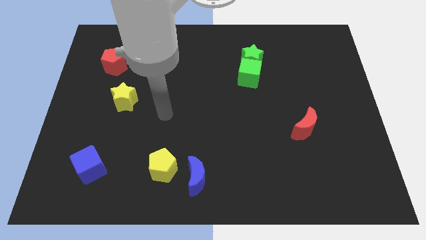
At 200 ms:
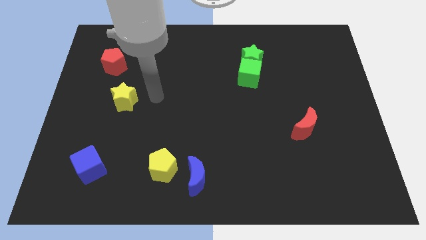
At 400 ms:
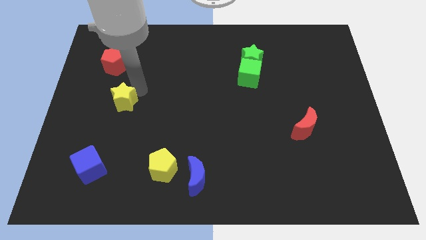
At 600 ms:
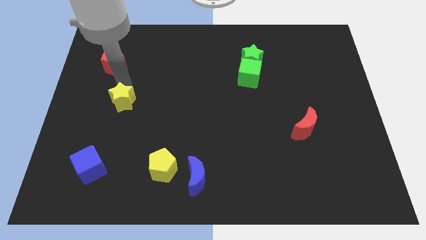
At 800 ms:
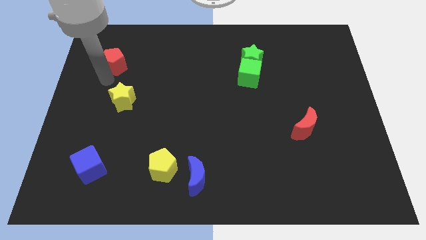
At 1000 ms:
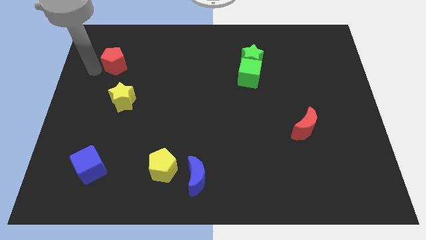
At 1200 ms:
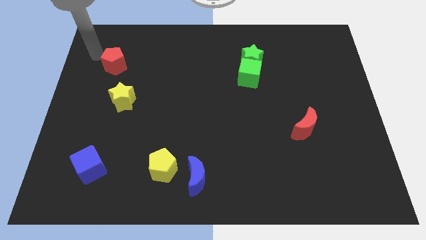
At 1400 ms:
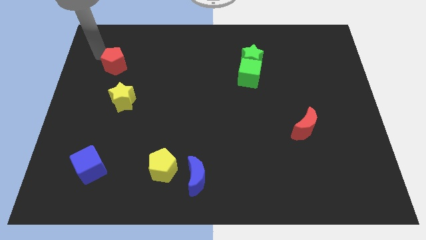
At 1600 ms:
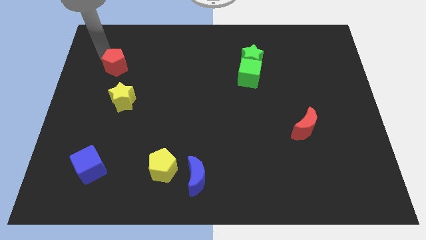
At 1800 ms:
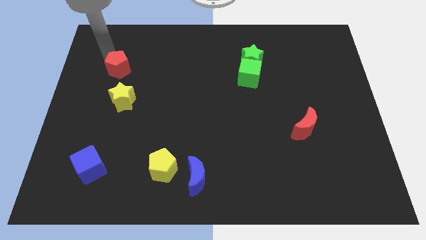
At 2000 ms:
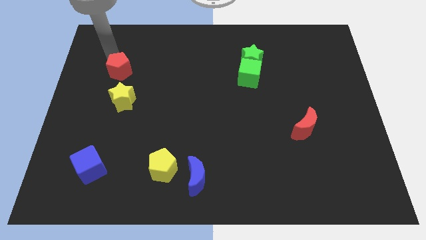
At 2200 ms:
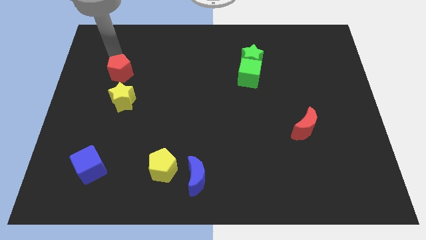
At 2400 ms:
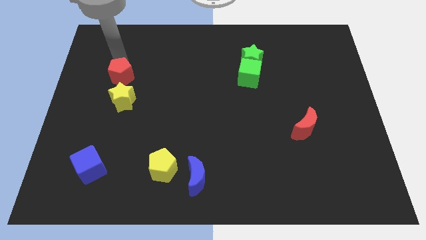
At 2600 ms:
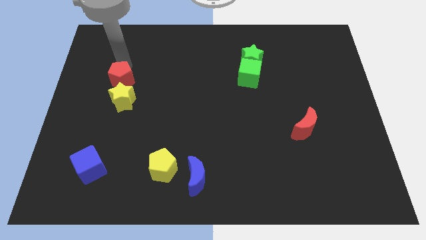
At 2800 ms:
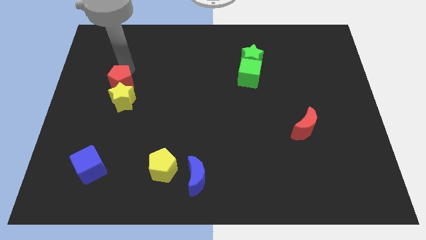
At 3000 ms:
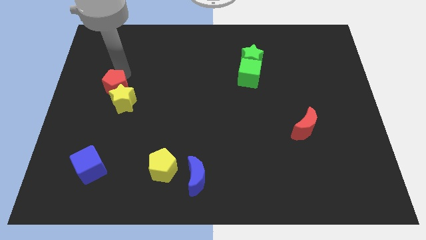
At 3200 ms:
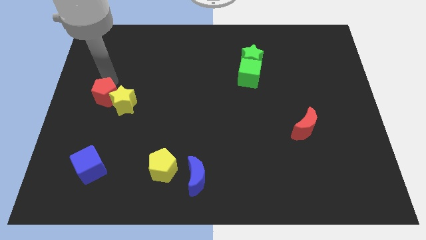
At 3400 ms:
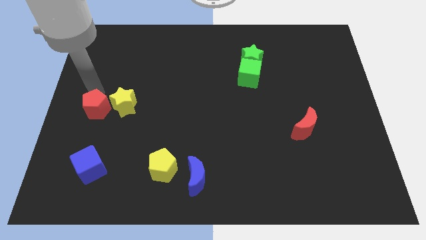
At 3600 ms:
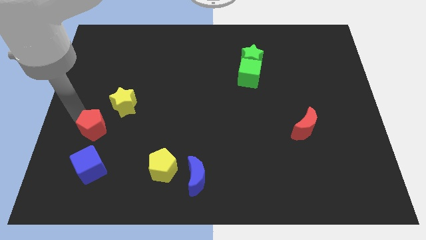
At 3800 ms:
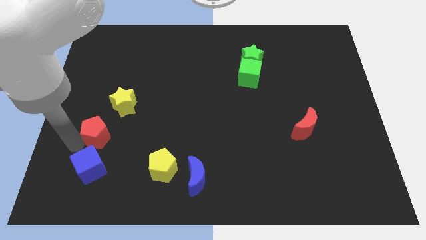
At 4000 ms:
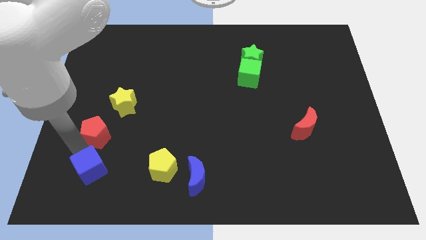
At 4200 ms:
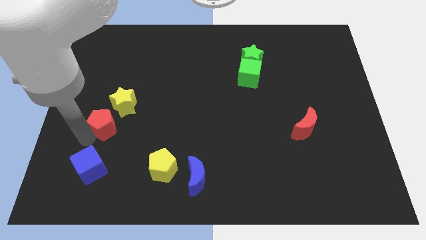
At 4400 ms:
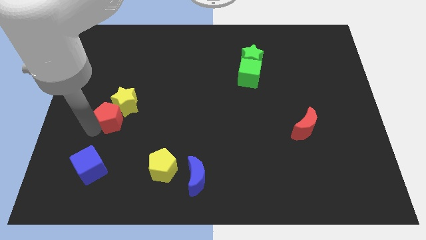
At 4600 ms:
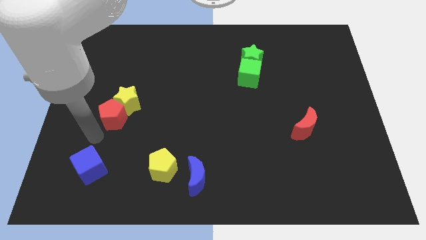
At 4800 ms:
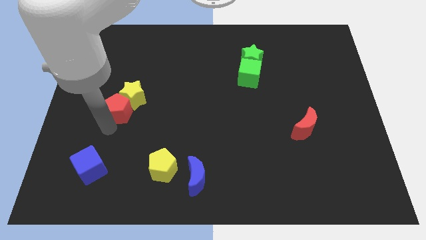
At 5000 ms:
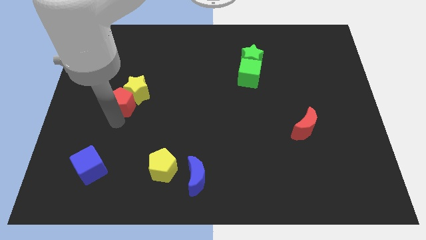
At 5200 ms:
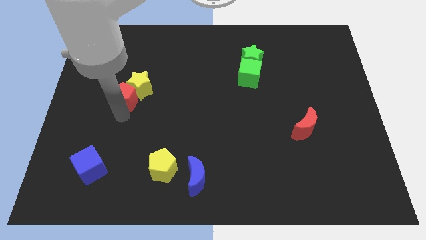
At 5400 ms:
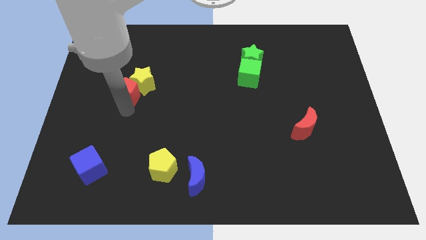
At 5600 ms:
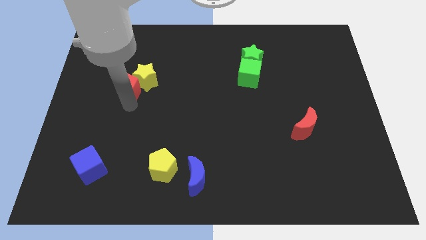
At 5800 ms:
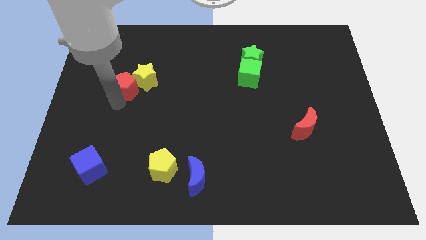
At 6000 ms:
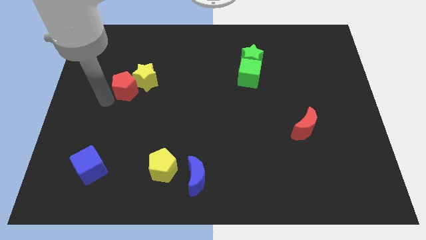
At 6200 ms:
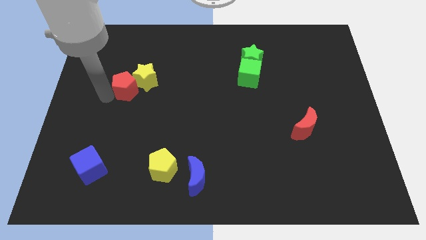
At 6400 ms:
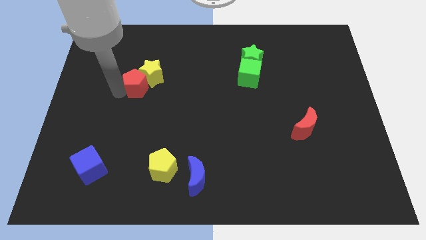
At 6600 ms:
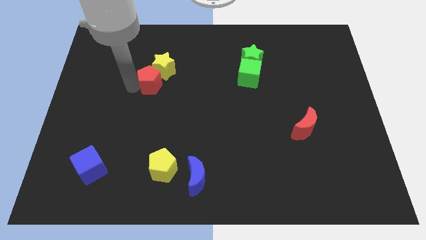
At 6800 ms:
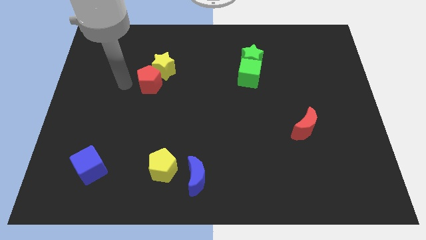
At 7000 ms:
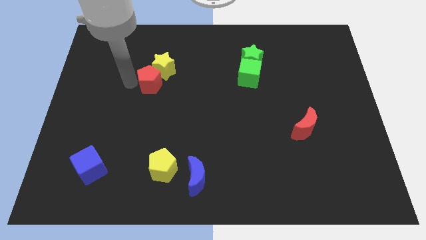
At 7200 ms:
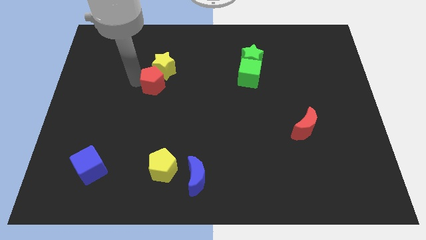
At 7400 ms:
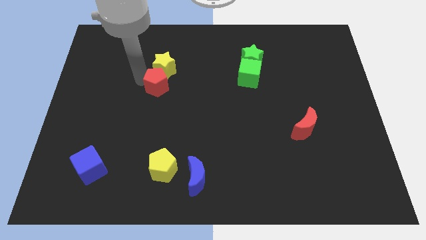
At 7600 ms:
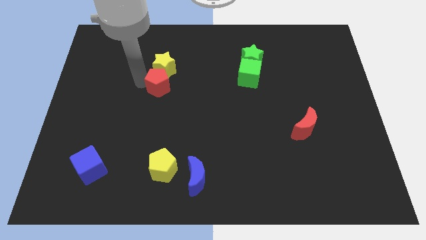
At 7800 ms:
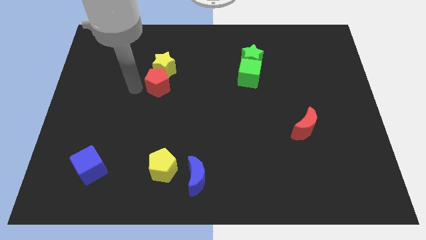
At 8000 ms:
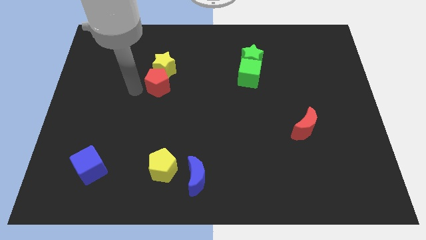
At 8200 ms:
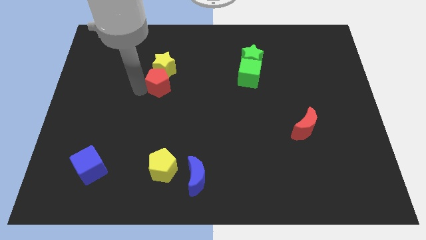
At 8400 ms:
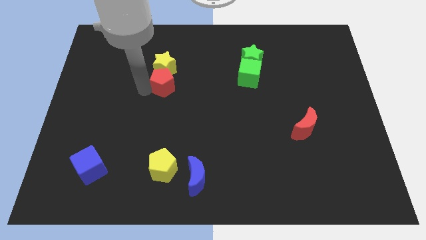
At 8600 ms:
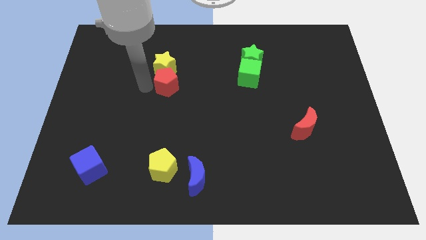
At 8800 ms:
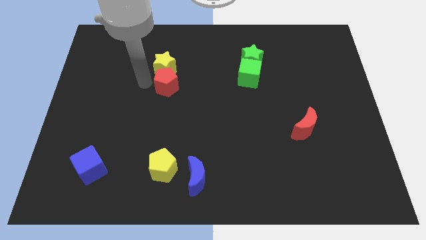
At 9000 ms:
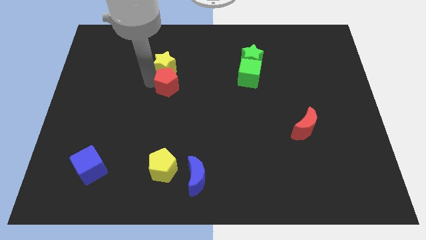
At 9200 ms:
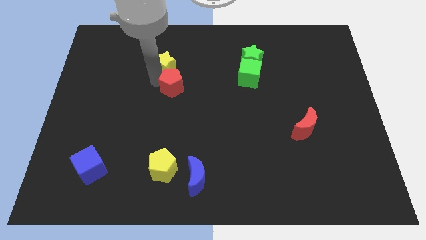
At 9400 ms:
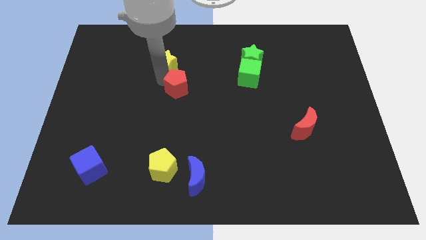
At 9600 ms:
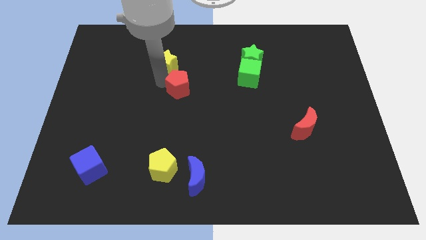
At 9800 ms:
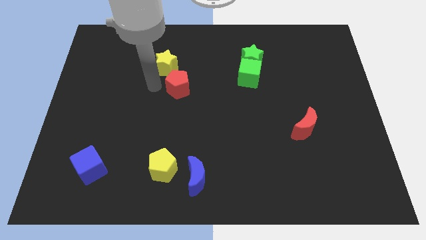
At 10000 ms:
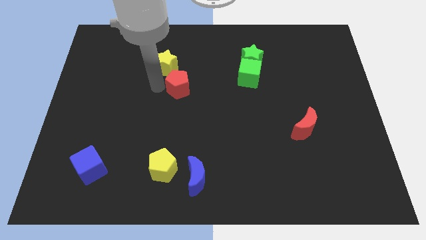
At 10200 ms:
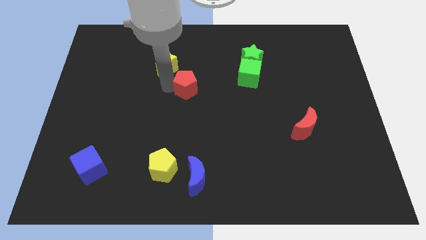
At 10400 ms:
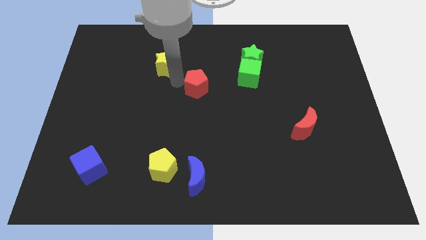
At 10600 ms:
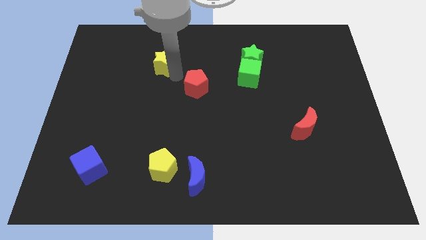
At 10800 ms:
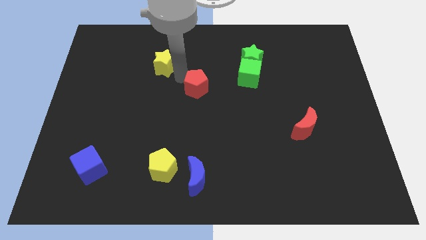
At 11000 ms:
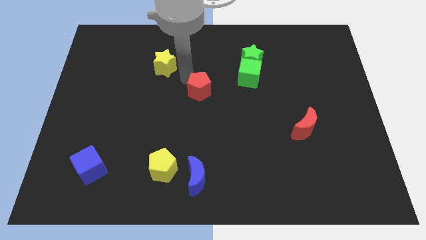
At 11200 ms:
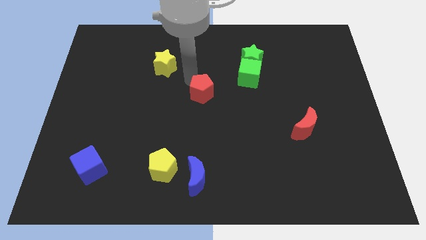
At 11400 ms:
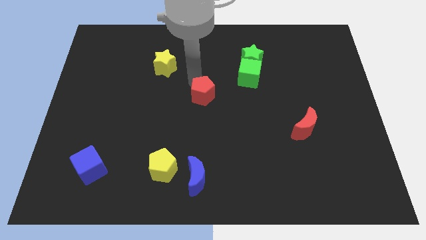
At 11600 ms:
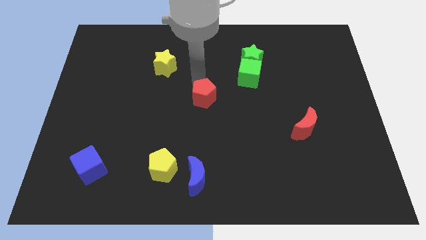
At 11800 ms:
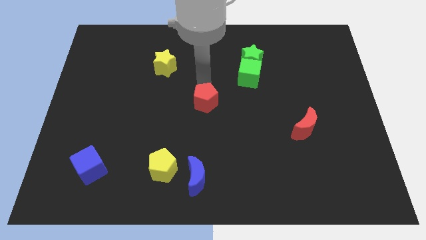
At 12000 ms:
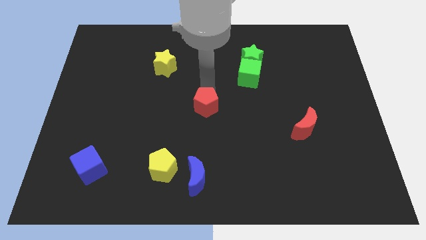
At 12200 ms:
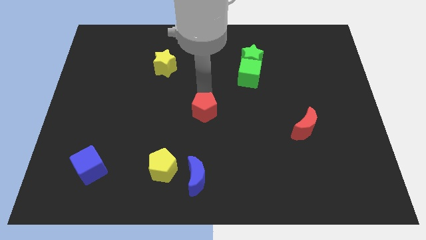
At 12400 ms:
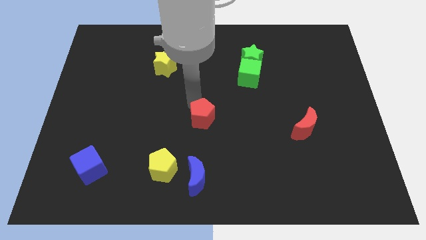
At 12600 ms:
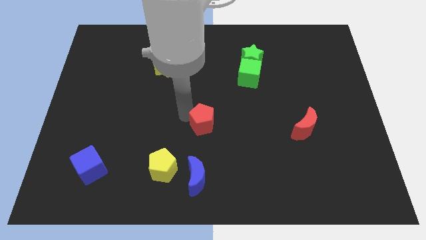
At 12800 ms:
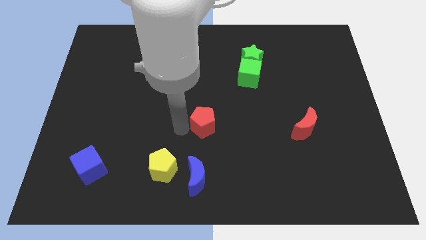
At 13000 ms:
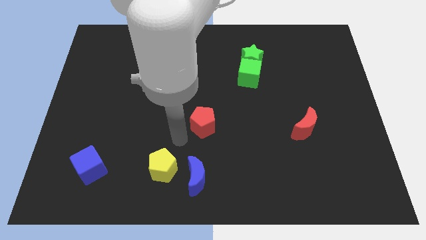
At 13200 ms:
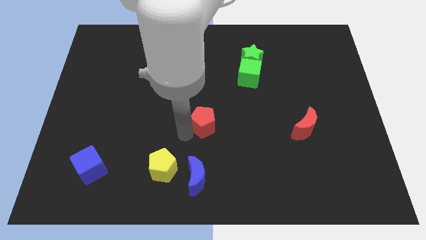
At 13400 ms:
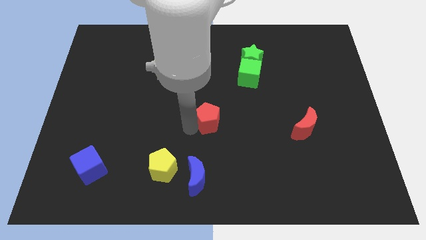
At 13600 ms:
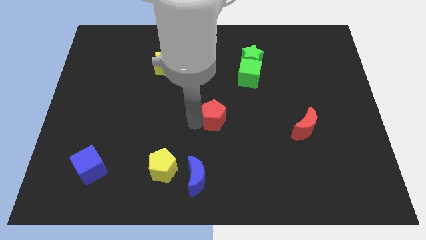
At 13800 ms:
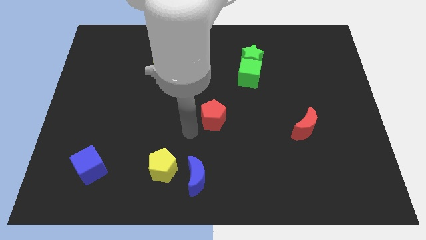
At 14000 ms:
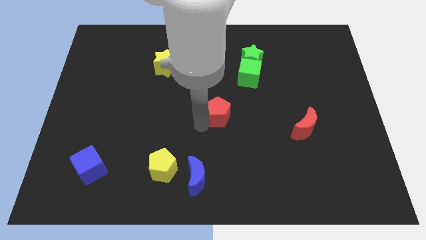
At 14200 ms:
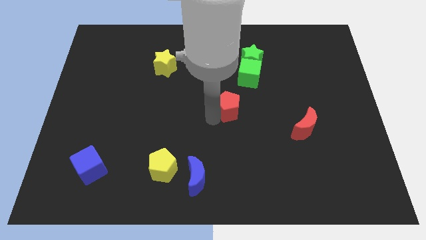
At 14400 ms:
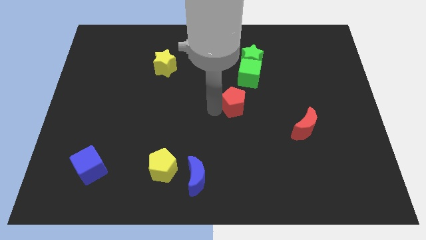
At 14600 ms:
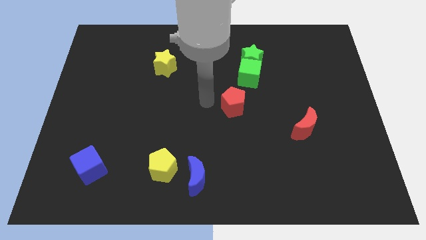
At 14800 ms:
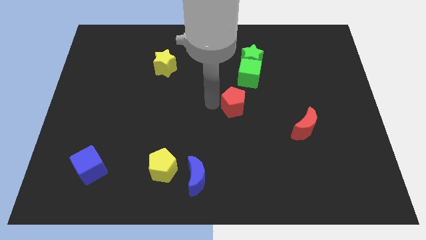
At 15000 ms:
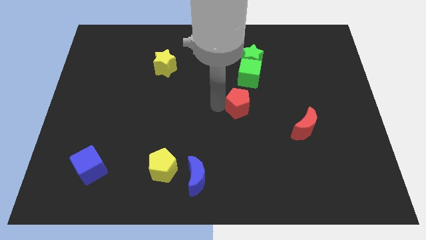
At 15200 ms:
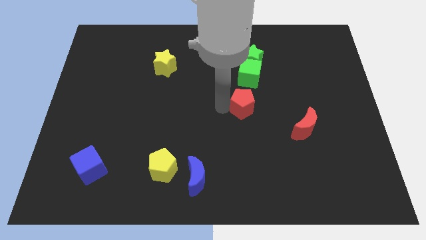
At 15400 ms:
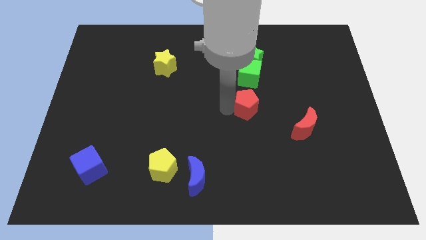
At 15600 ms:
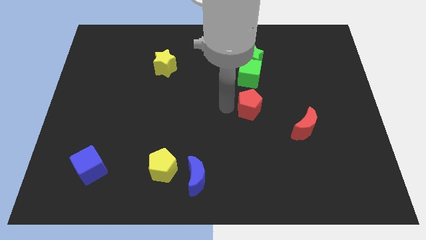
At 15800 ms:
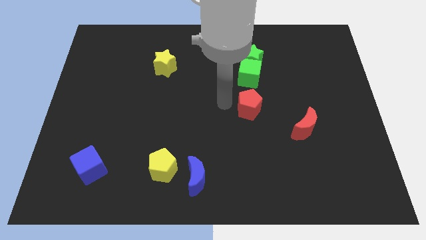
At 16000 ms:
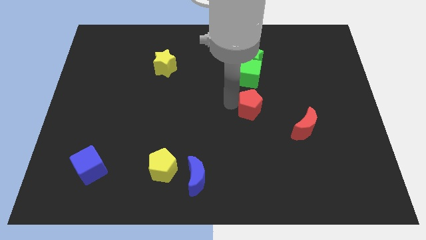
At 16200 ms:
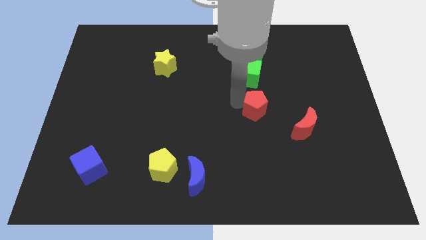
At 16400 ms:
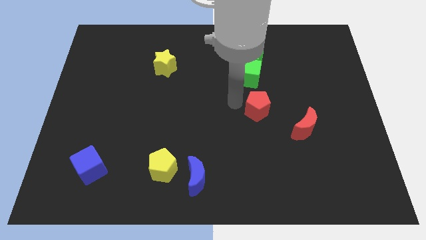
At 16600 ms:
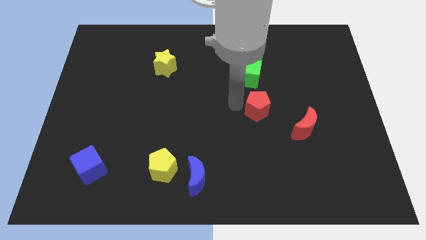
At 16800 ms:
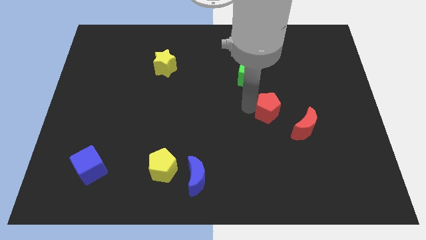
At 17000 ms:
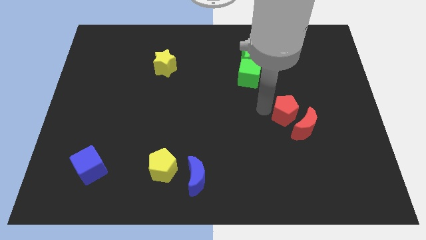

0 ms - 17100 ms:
put the red pentagon towards the red moon

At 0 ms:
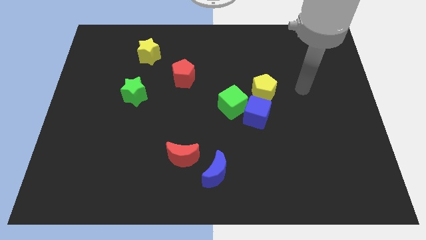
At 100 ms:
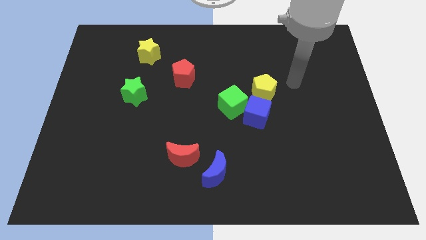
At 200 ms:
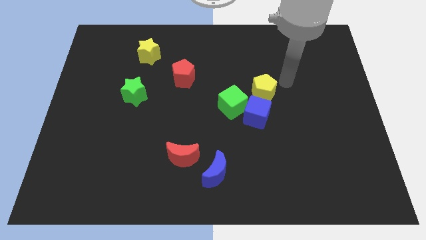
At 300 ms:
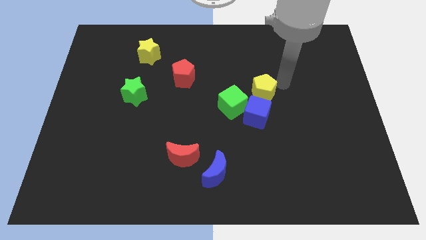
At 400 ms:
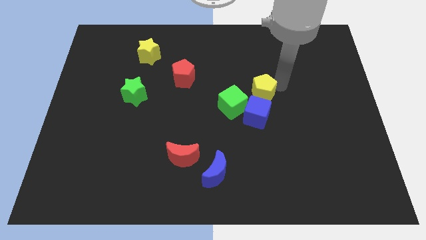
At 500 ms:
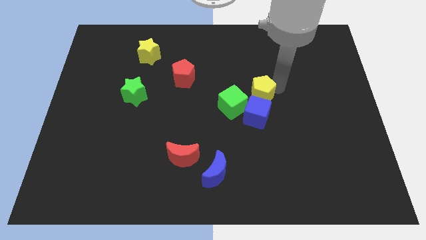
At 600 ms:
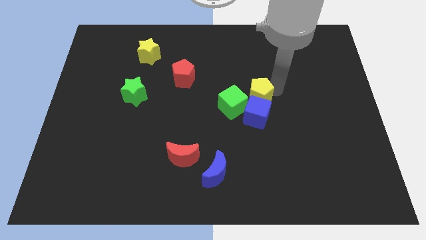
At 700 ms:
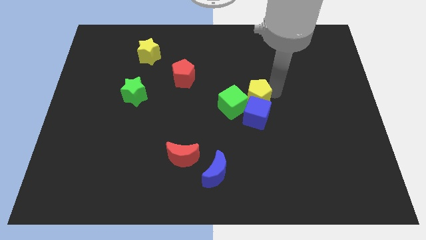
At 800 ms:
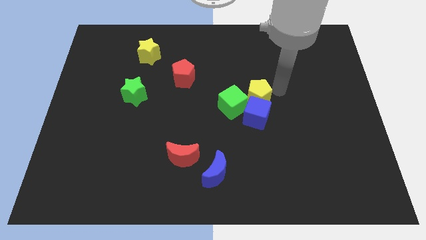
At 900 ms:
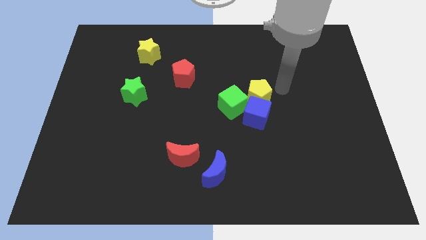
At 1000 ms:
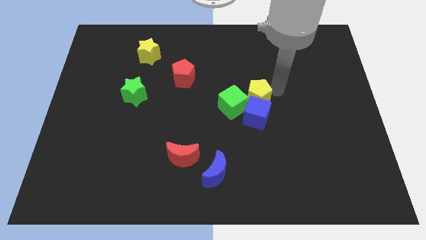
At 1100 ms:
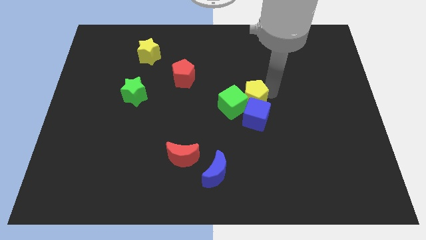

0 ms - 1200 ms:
move the yellow pentagon next to the green cube
